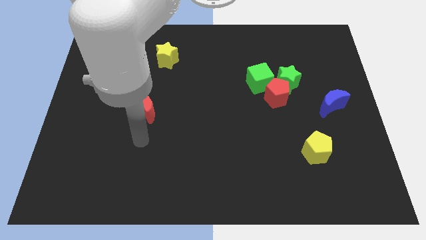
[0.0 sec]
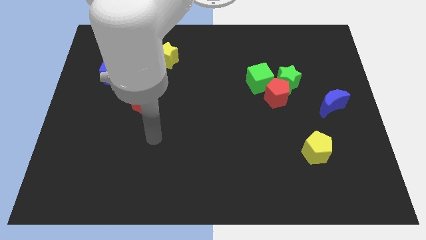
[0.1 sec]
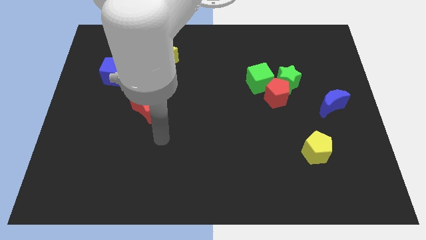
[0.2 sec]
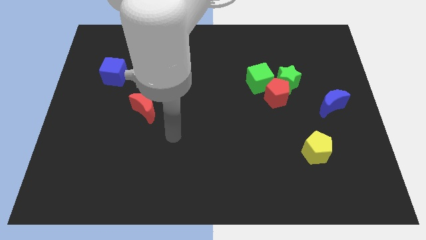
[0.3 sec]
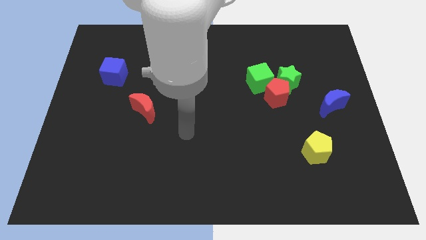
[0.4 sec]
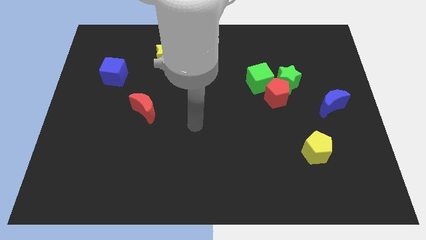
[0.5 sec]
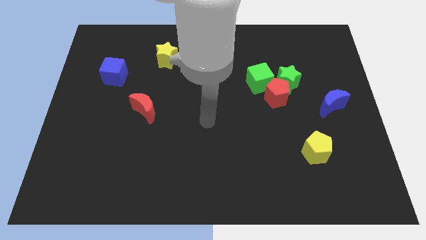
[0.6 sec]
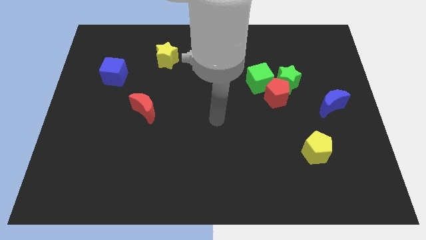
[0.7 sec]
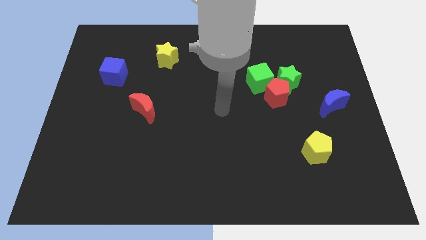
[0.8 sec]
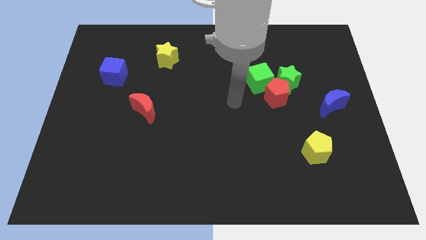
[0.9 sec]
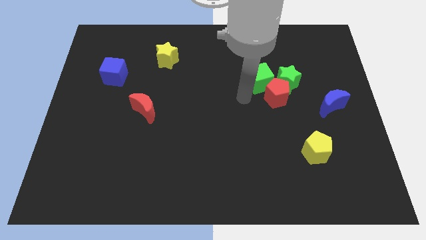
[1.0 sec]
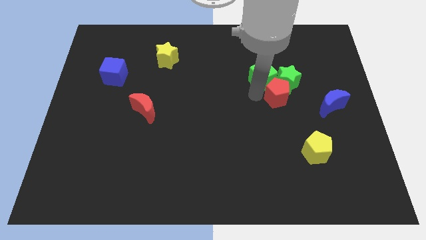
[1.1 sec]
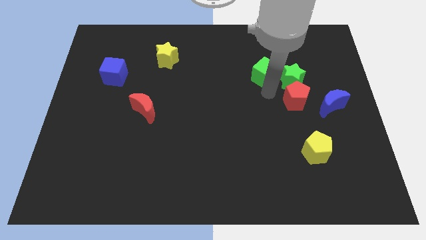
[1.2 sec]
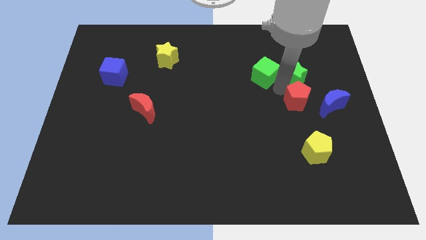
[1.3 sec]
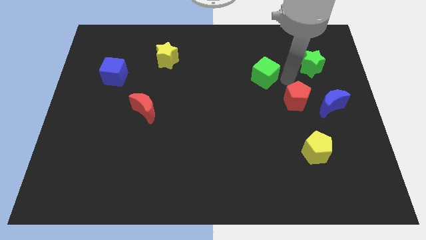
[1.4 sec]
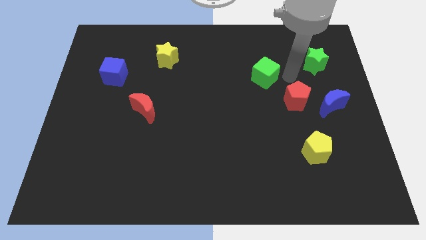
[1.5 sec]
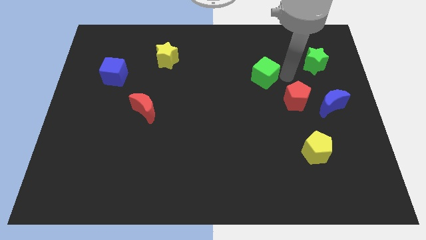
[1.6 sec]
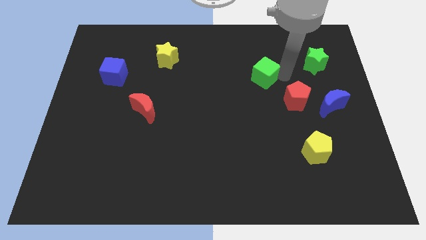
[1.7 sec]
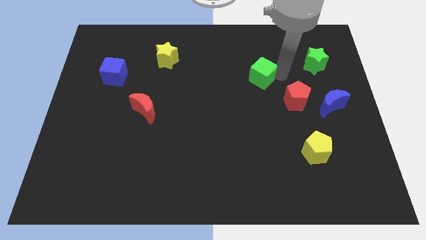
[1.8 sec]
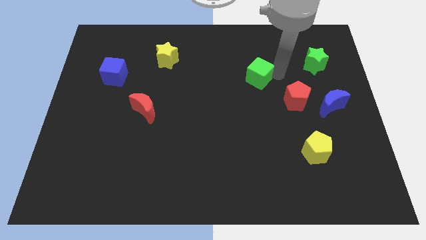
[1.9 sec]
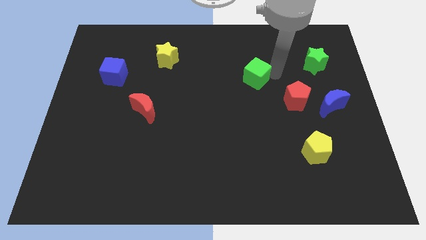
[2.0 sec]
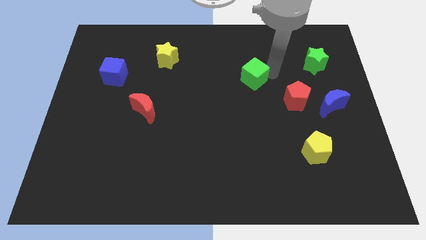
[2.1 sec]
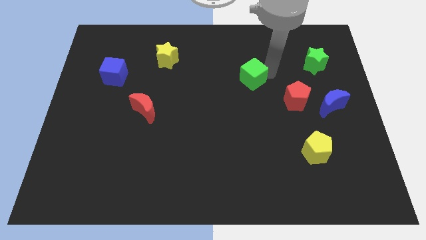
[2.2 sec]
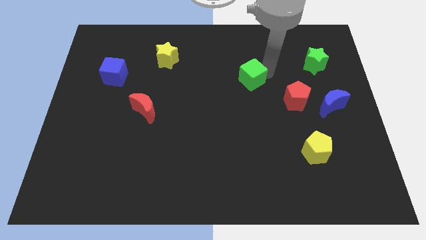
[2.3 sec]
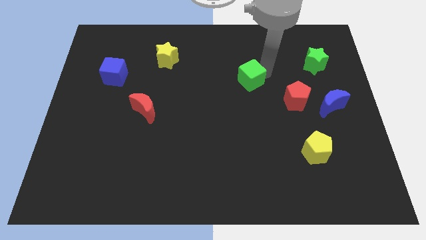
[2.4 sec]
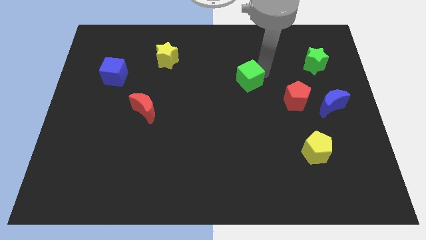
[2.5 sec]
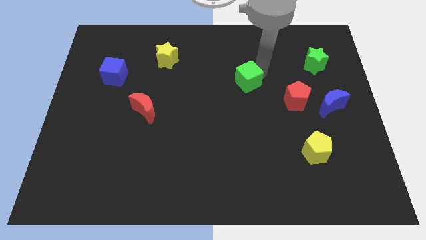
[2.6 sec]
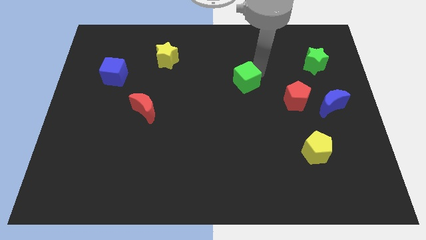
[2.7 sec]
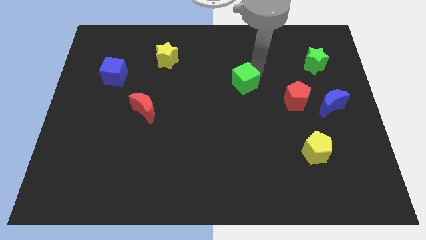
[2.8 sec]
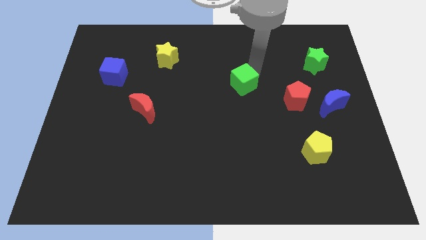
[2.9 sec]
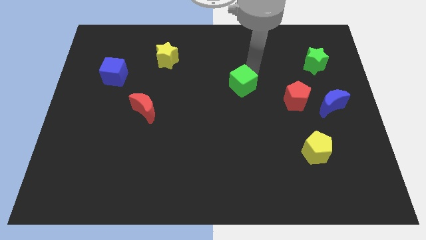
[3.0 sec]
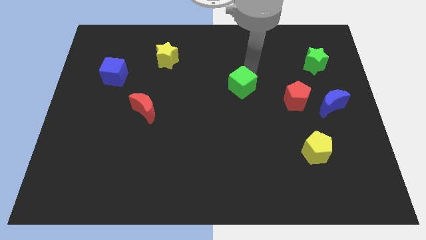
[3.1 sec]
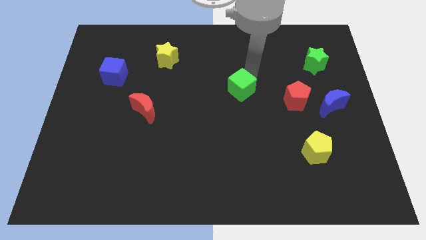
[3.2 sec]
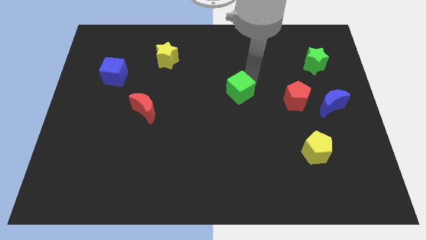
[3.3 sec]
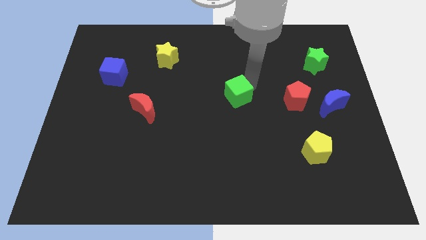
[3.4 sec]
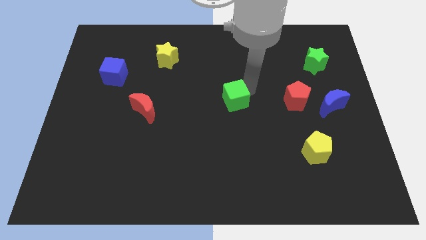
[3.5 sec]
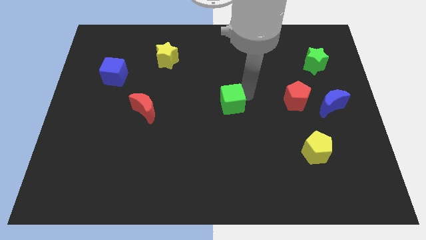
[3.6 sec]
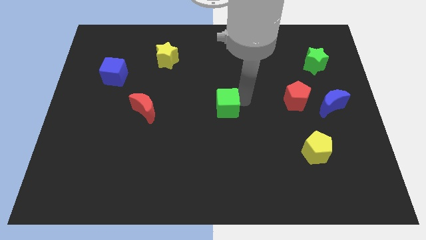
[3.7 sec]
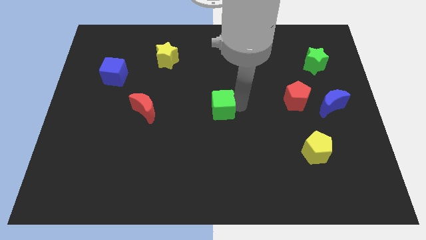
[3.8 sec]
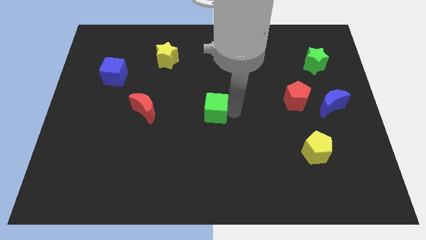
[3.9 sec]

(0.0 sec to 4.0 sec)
slightly push the green cube left

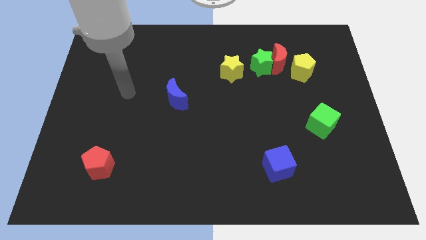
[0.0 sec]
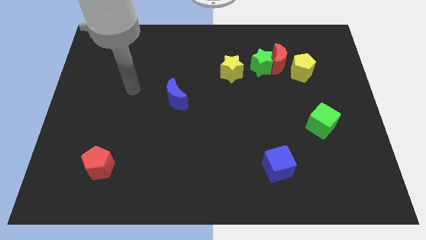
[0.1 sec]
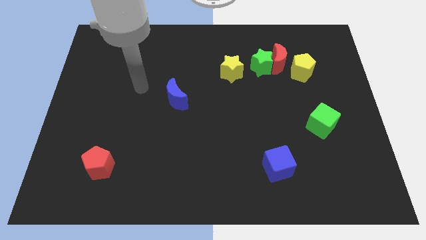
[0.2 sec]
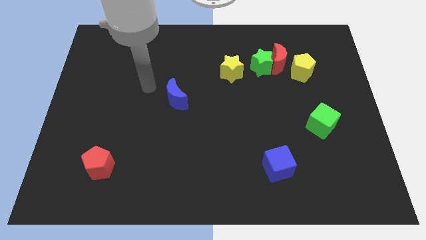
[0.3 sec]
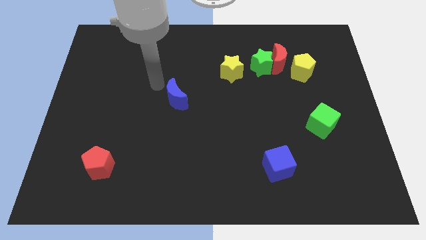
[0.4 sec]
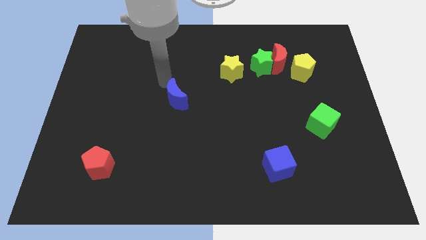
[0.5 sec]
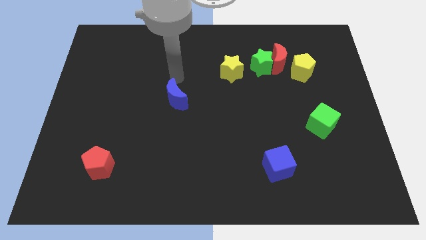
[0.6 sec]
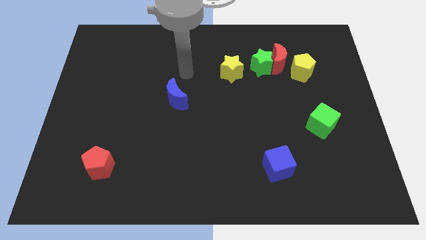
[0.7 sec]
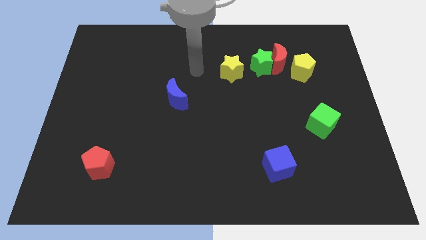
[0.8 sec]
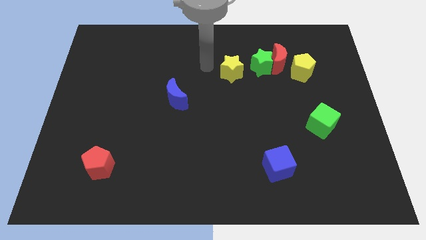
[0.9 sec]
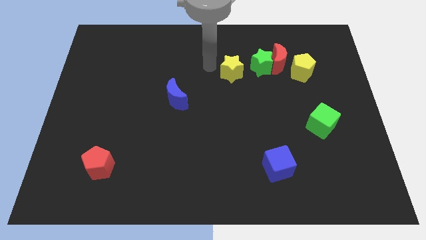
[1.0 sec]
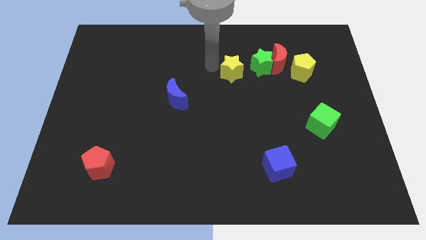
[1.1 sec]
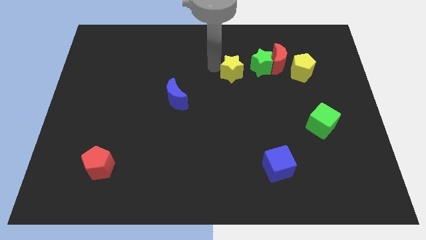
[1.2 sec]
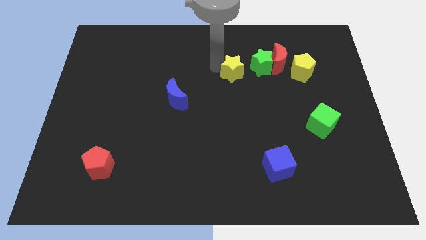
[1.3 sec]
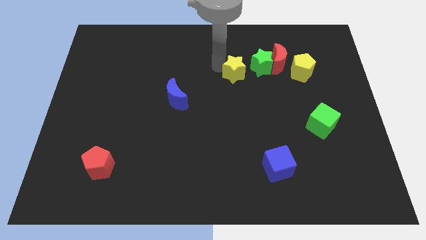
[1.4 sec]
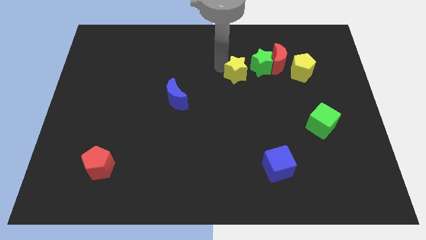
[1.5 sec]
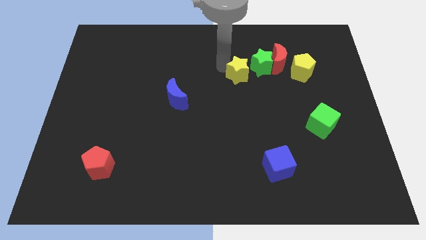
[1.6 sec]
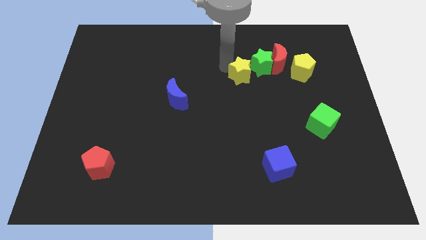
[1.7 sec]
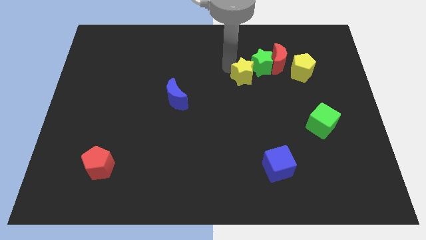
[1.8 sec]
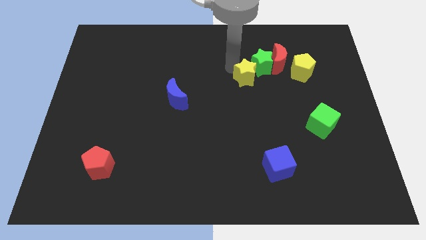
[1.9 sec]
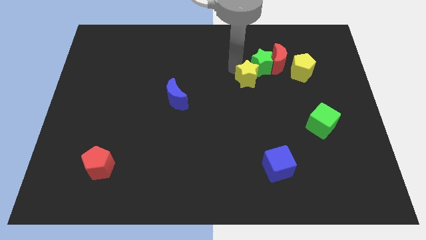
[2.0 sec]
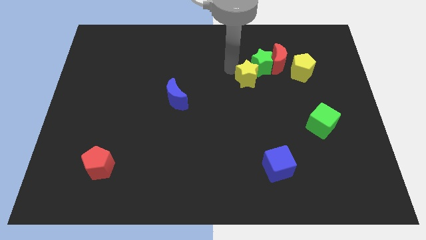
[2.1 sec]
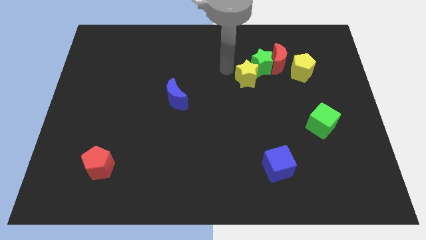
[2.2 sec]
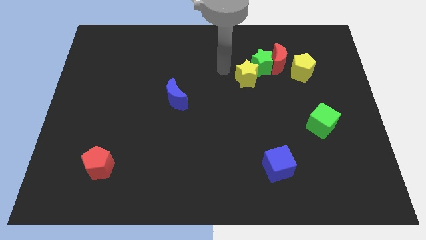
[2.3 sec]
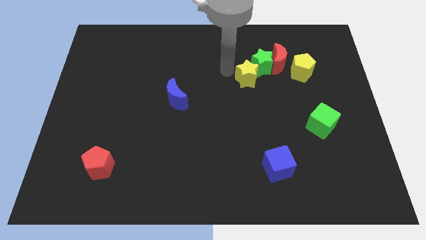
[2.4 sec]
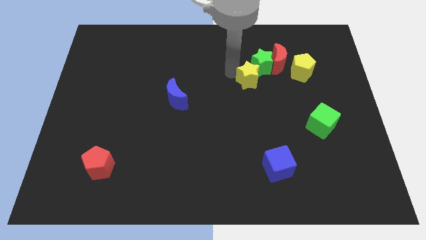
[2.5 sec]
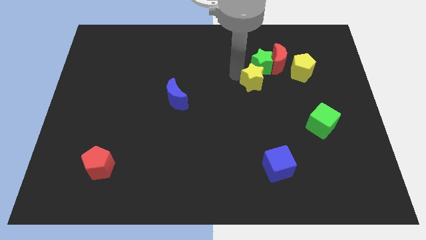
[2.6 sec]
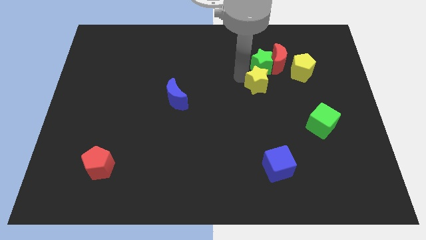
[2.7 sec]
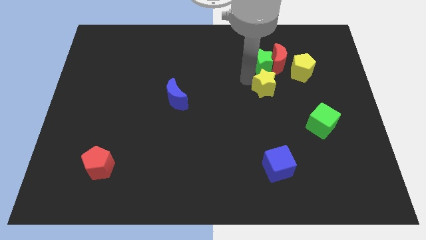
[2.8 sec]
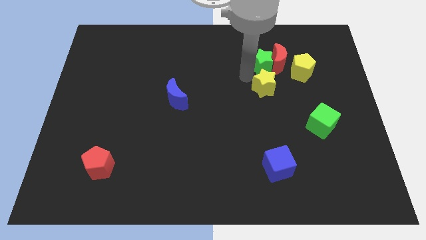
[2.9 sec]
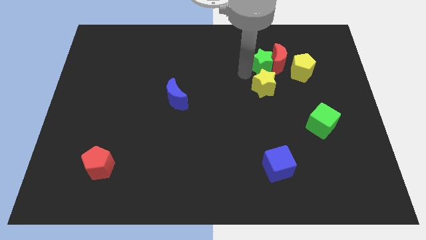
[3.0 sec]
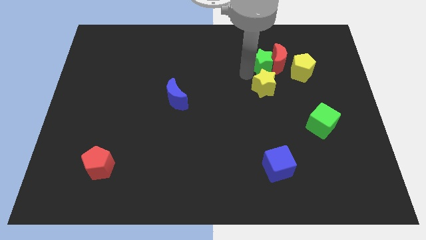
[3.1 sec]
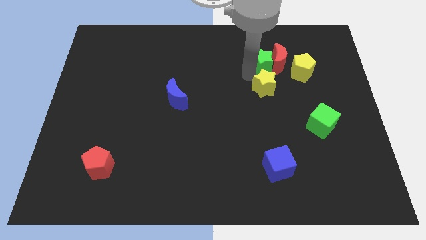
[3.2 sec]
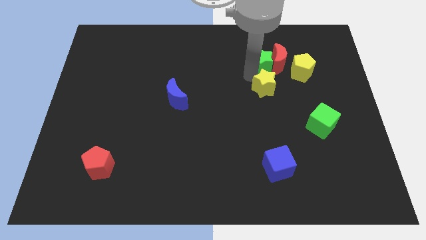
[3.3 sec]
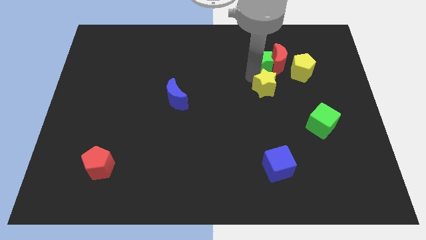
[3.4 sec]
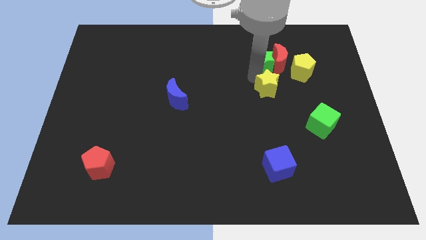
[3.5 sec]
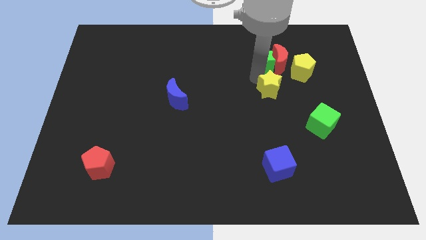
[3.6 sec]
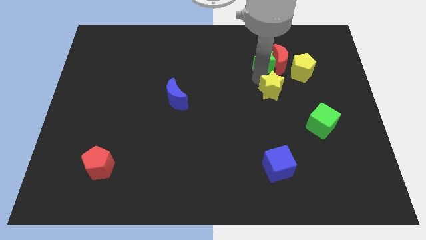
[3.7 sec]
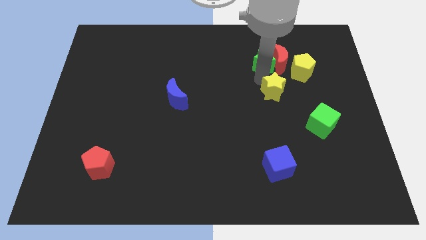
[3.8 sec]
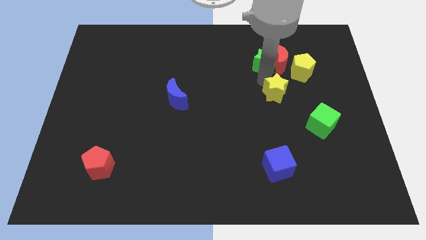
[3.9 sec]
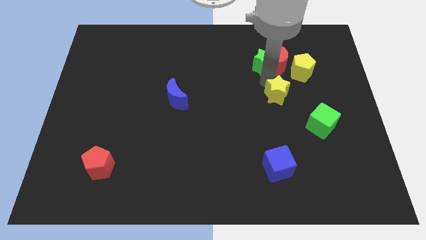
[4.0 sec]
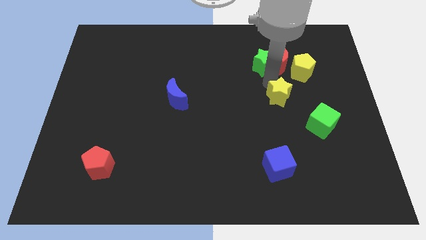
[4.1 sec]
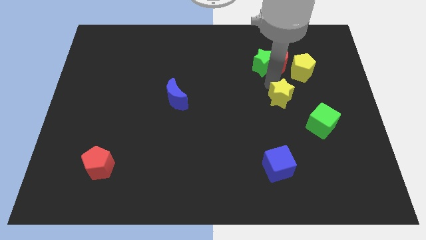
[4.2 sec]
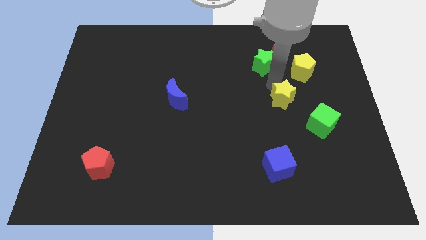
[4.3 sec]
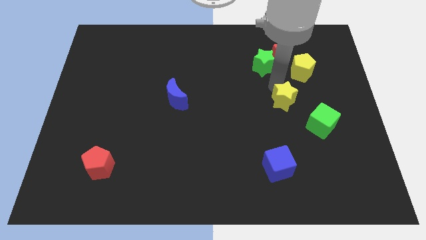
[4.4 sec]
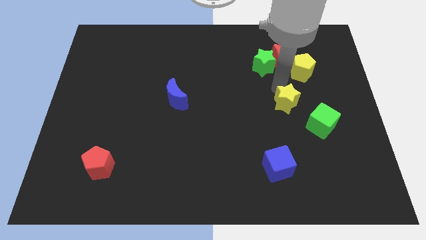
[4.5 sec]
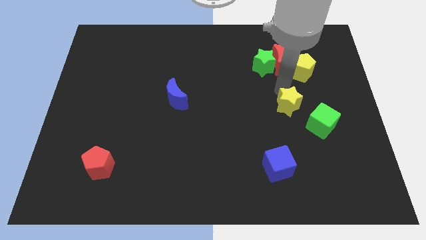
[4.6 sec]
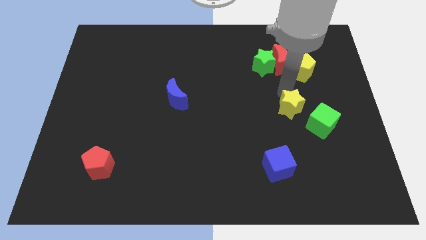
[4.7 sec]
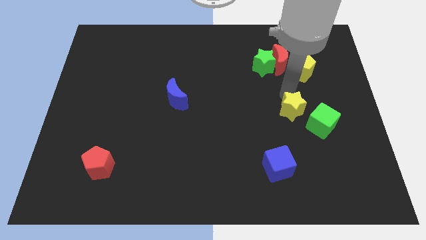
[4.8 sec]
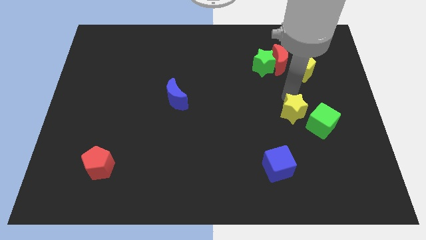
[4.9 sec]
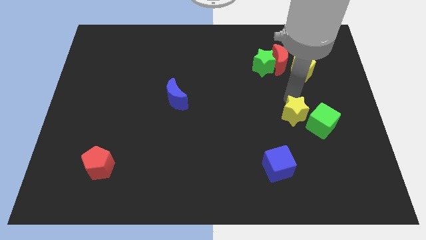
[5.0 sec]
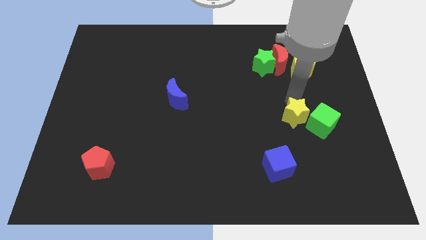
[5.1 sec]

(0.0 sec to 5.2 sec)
move the yellow star down and to the right diagonally
